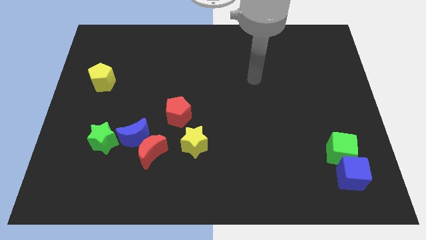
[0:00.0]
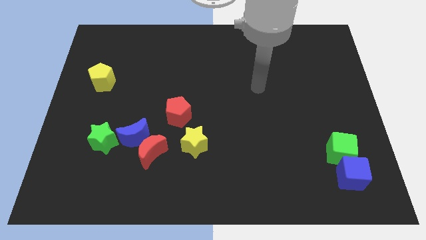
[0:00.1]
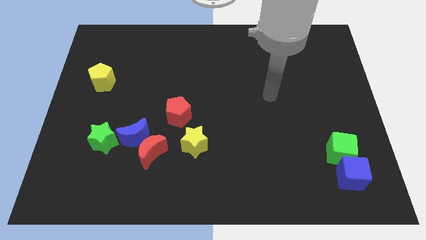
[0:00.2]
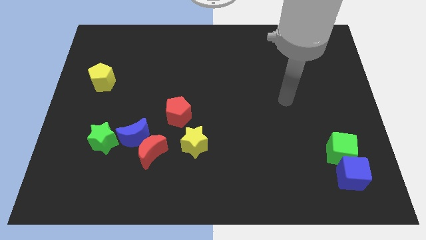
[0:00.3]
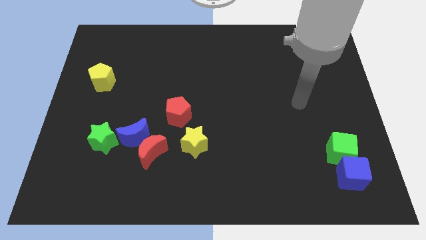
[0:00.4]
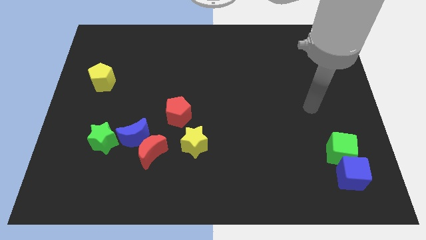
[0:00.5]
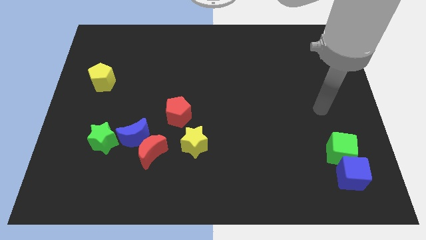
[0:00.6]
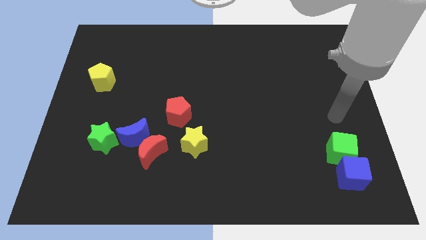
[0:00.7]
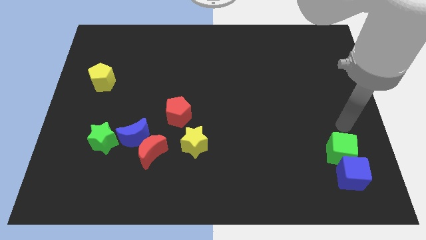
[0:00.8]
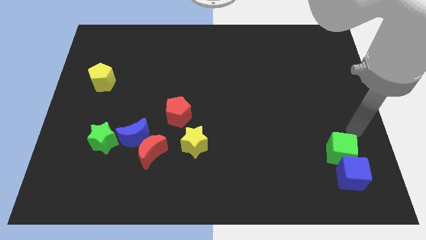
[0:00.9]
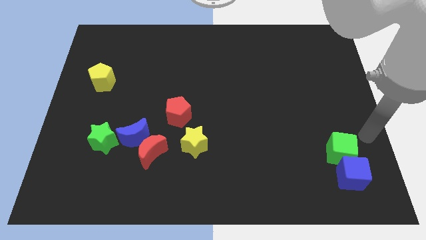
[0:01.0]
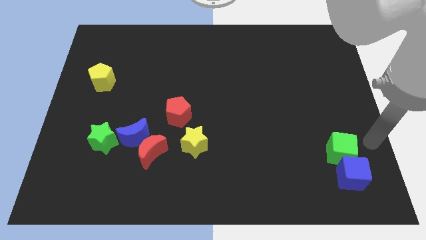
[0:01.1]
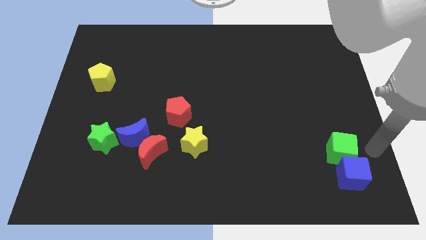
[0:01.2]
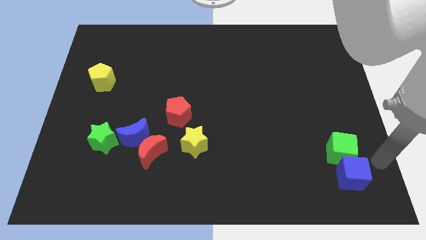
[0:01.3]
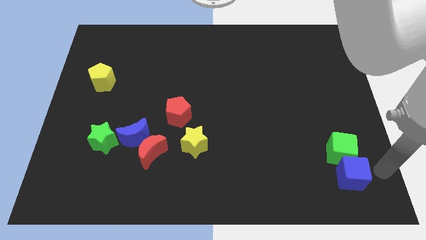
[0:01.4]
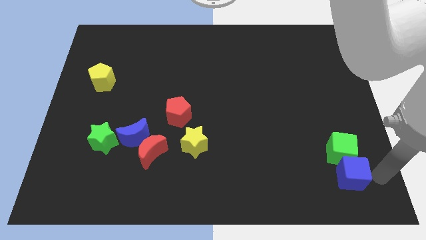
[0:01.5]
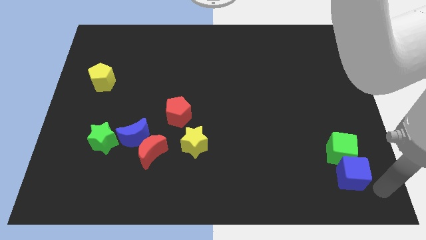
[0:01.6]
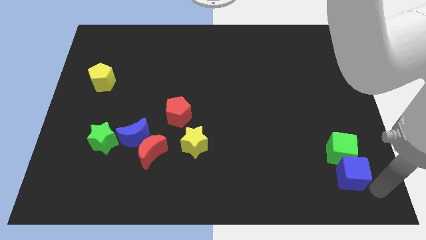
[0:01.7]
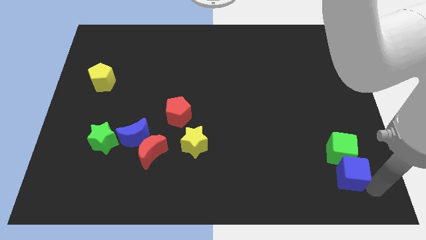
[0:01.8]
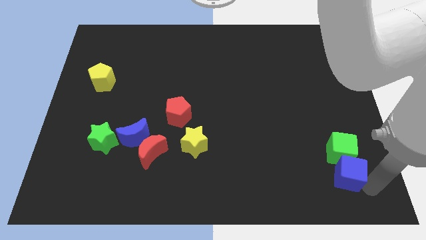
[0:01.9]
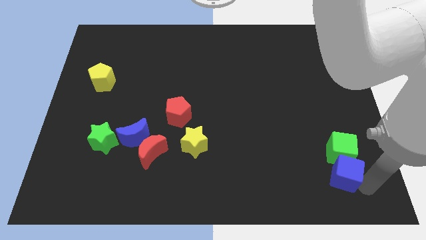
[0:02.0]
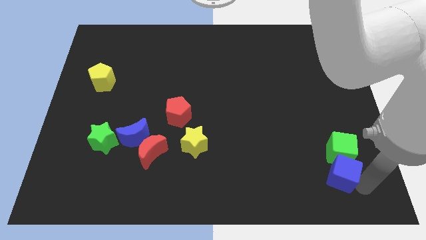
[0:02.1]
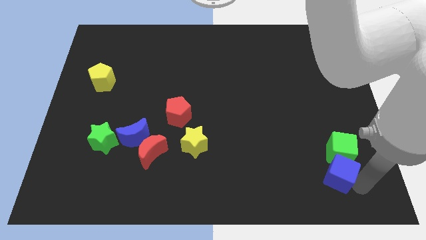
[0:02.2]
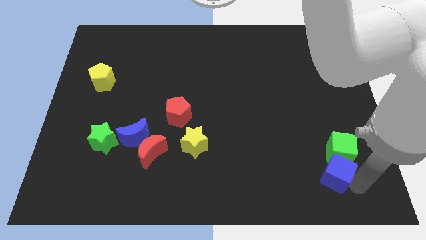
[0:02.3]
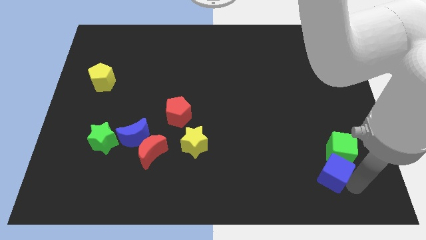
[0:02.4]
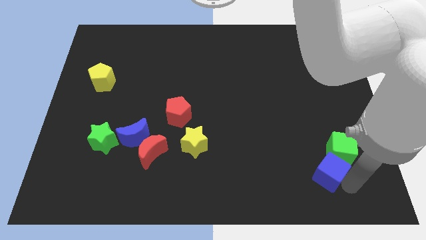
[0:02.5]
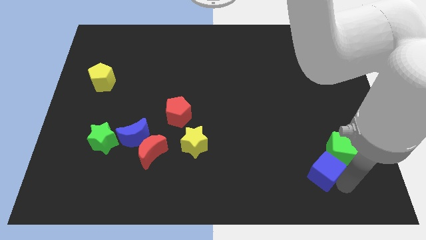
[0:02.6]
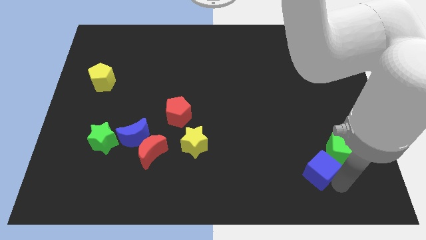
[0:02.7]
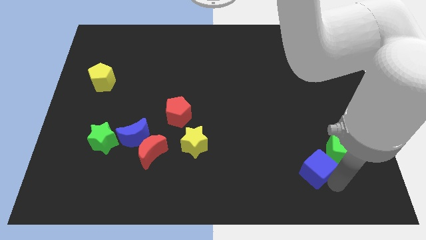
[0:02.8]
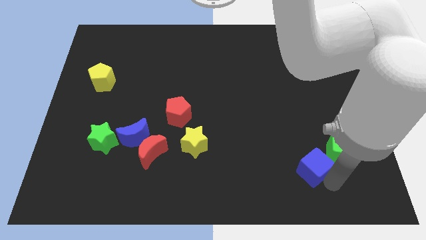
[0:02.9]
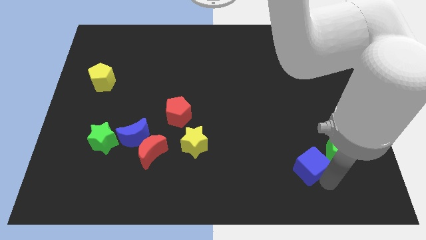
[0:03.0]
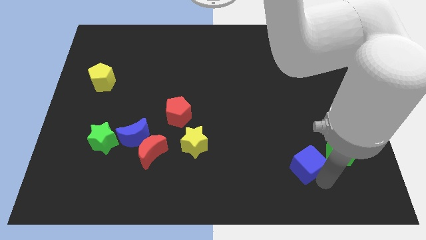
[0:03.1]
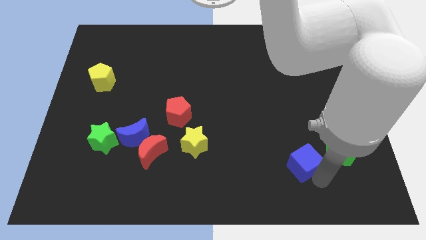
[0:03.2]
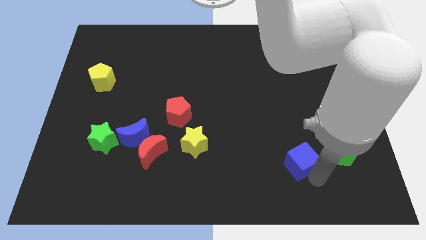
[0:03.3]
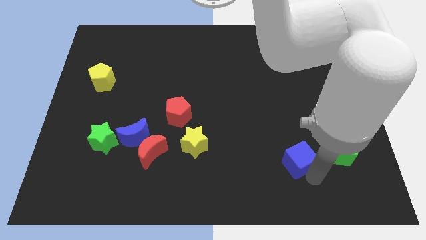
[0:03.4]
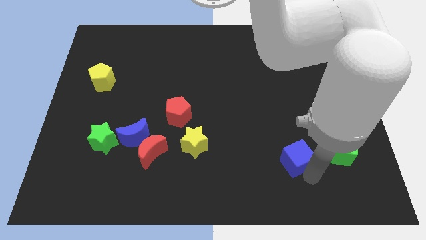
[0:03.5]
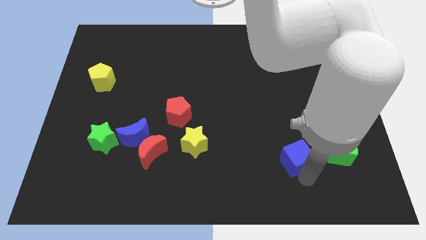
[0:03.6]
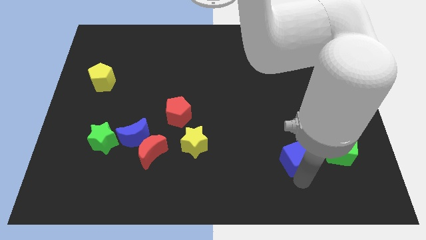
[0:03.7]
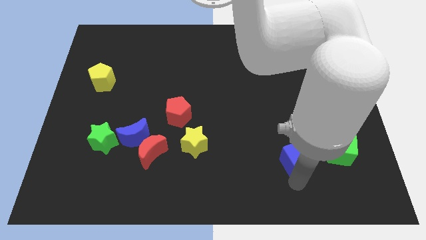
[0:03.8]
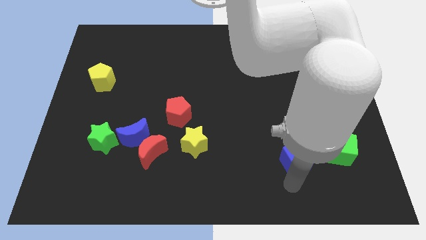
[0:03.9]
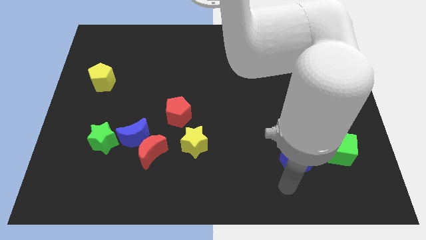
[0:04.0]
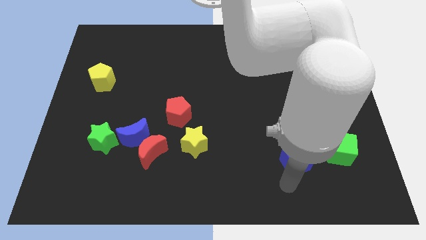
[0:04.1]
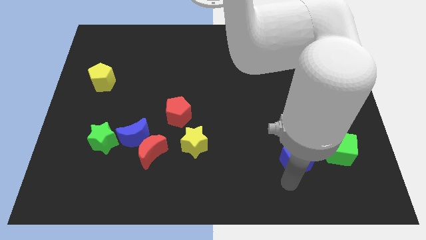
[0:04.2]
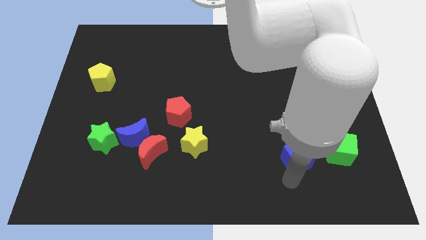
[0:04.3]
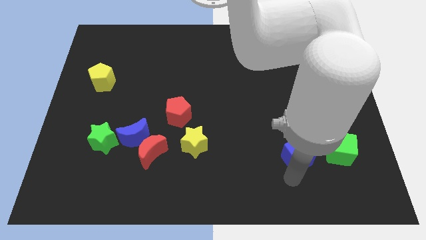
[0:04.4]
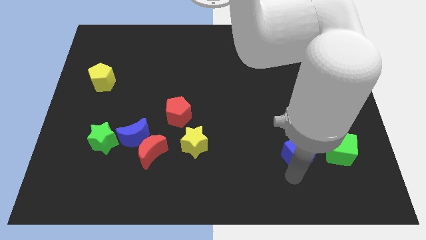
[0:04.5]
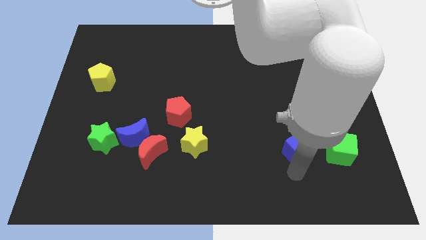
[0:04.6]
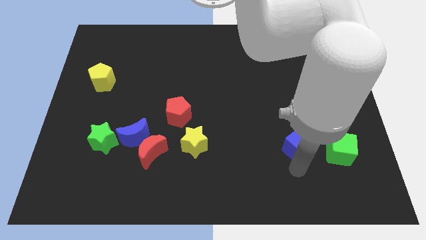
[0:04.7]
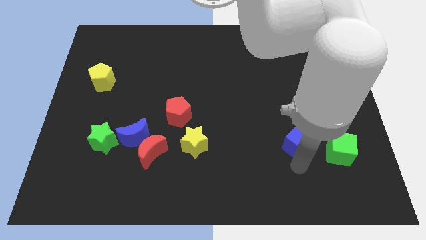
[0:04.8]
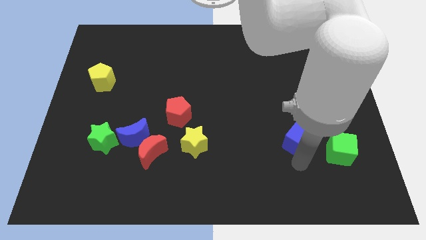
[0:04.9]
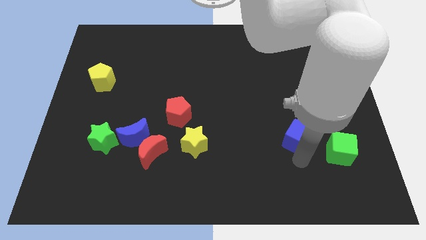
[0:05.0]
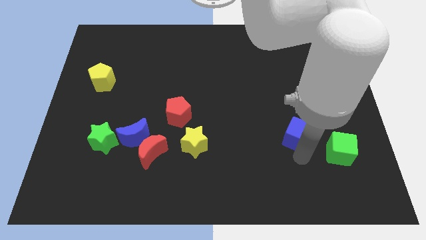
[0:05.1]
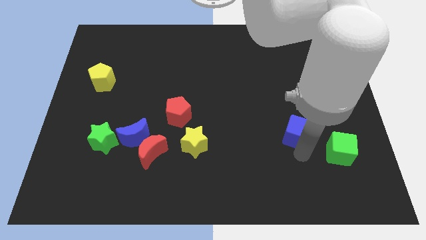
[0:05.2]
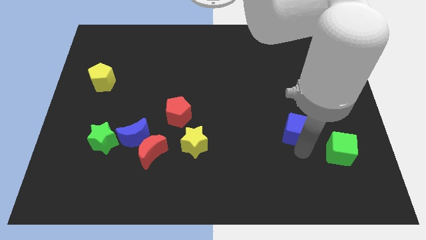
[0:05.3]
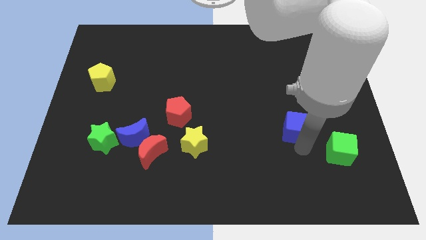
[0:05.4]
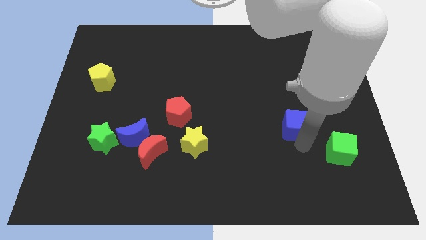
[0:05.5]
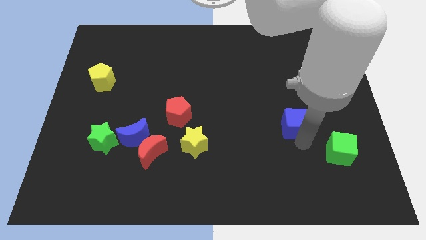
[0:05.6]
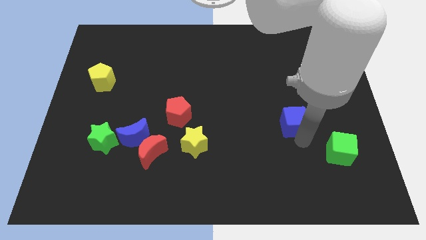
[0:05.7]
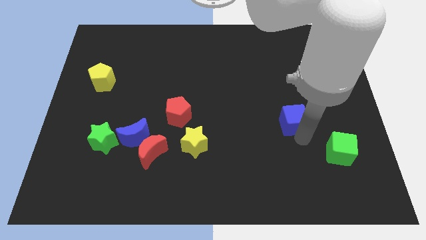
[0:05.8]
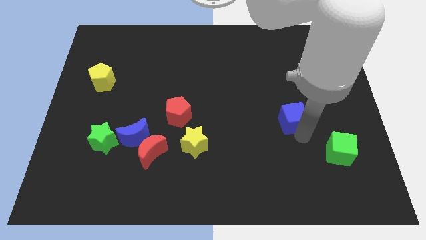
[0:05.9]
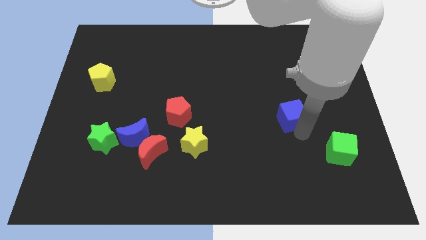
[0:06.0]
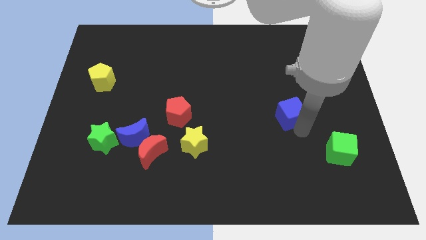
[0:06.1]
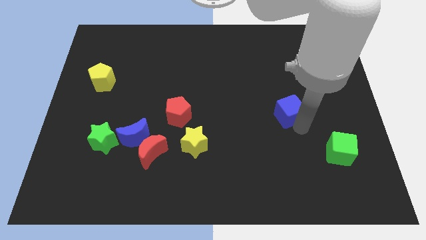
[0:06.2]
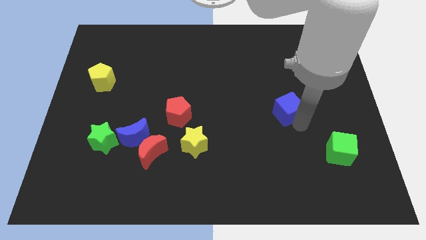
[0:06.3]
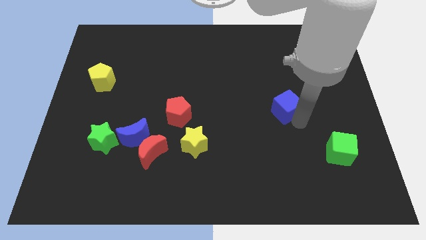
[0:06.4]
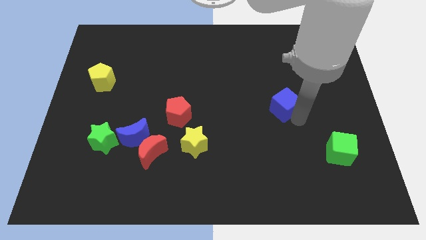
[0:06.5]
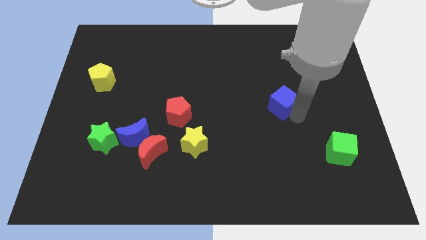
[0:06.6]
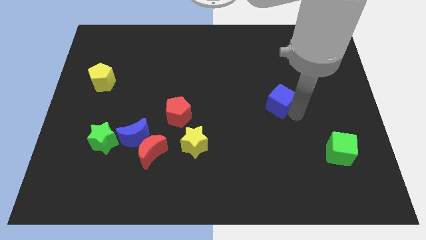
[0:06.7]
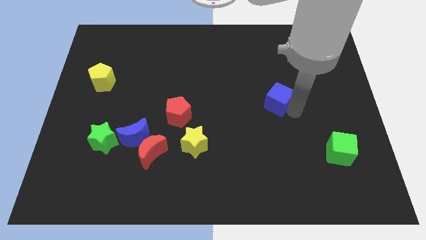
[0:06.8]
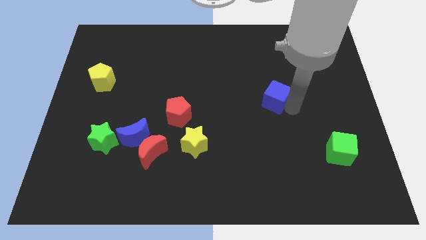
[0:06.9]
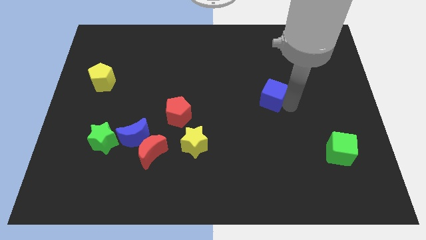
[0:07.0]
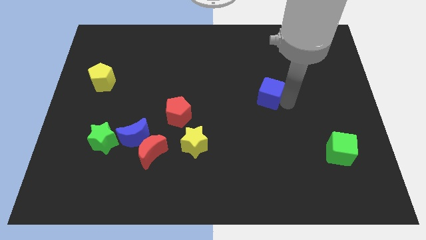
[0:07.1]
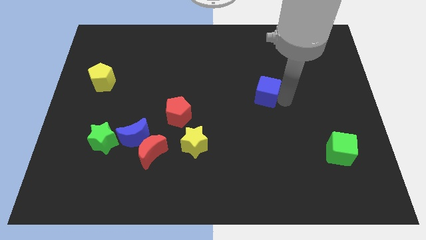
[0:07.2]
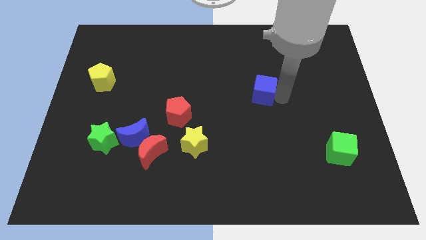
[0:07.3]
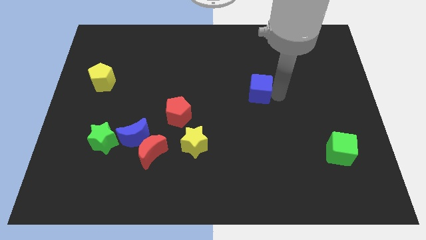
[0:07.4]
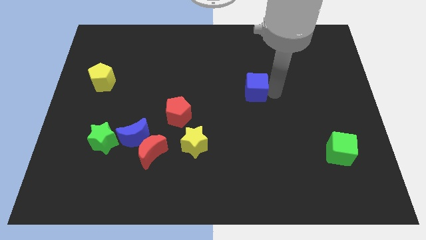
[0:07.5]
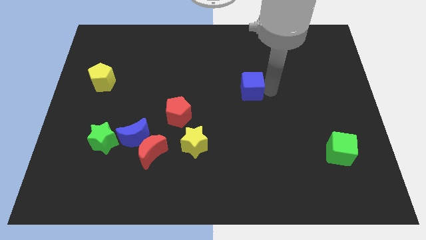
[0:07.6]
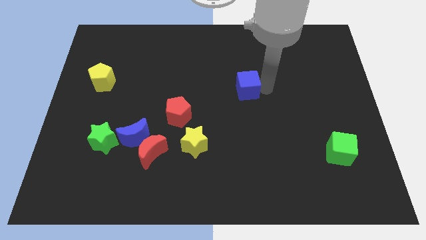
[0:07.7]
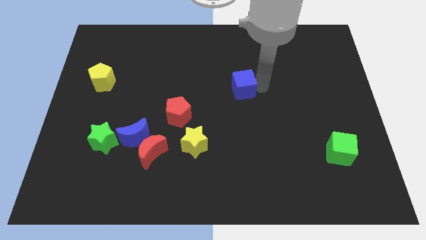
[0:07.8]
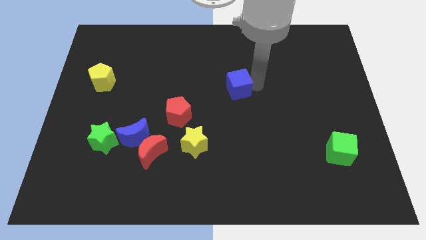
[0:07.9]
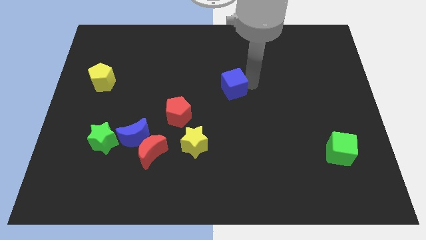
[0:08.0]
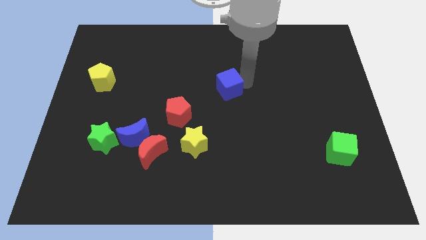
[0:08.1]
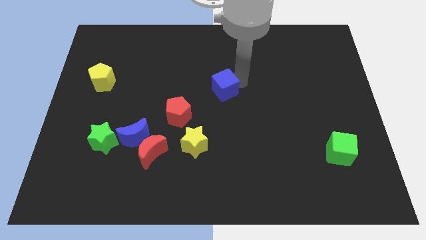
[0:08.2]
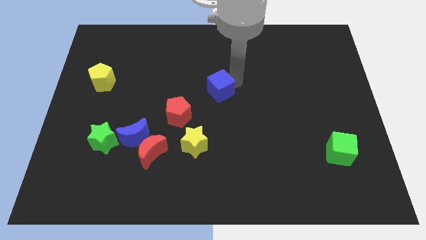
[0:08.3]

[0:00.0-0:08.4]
slide the blue cube to the top right side of the red pentagon
